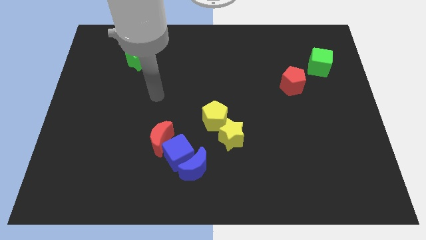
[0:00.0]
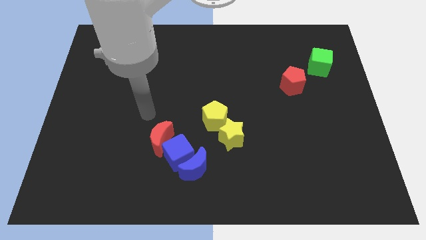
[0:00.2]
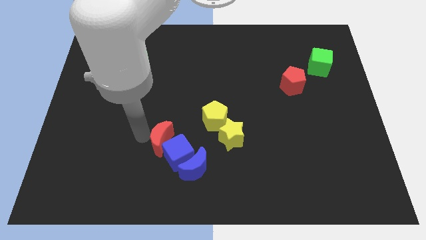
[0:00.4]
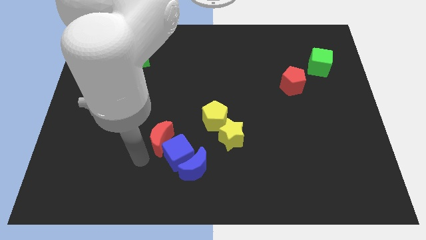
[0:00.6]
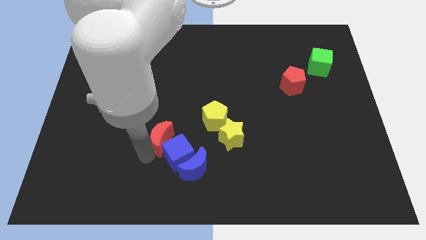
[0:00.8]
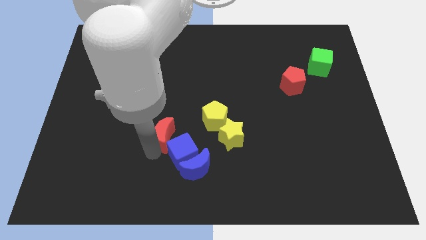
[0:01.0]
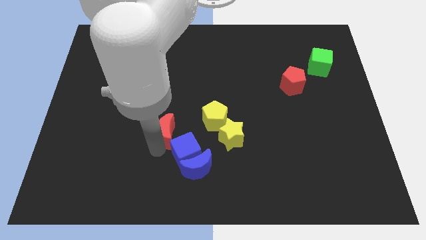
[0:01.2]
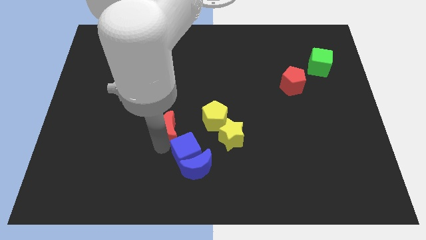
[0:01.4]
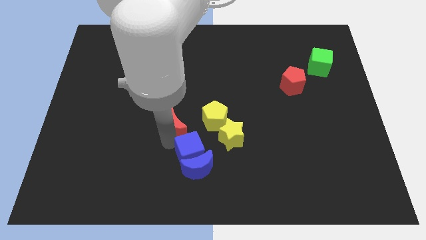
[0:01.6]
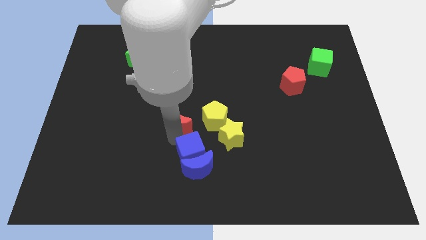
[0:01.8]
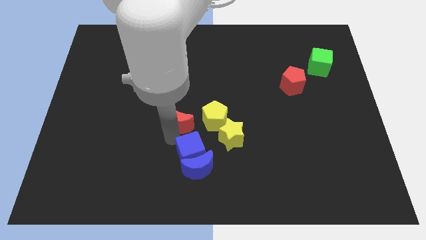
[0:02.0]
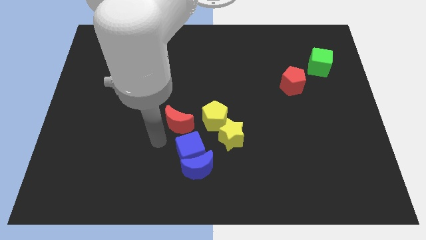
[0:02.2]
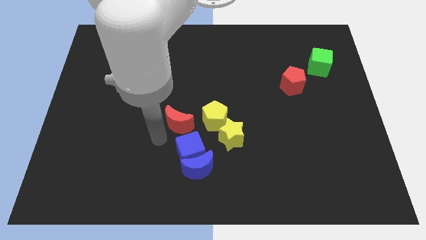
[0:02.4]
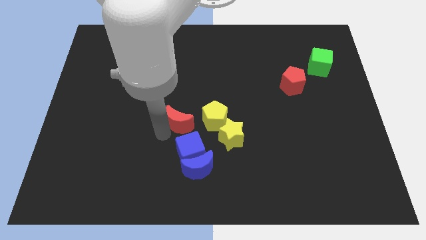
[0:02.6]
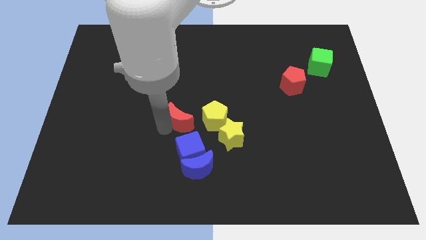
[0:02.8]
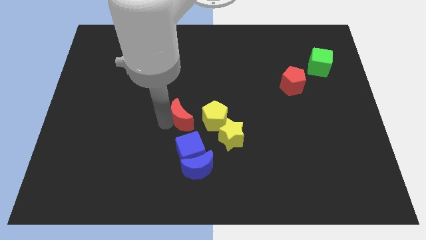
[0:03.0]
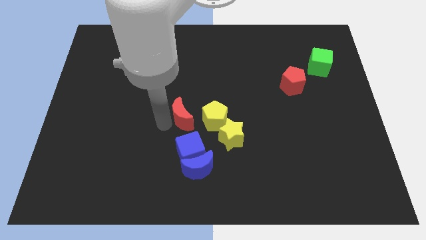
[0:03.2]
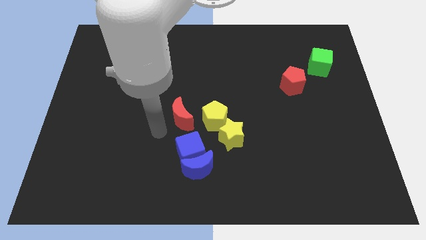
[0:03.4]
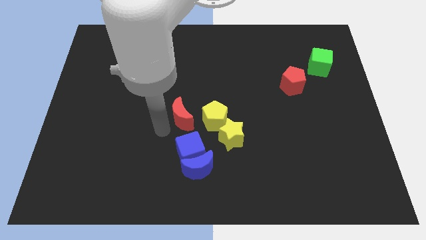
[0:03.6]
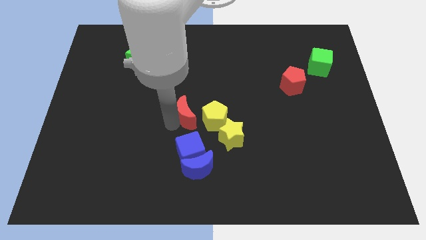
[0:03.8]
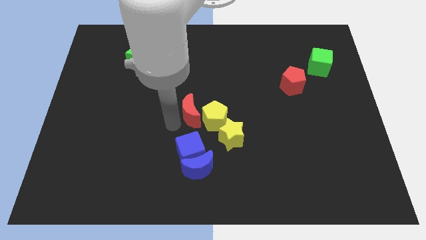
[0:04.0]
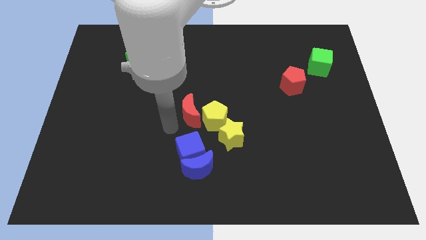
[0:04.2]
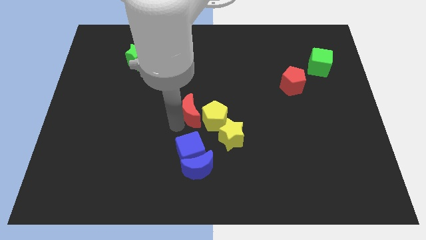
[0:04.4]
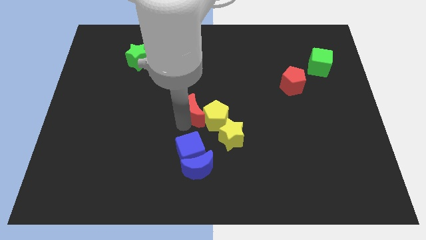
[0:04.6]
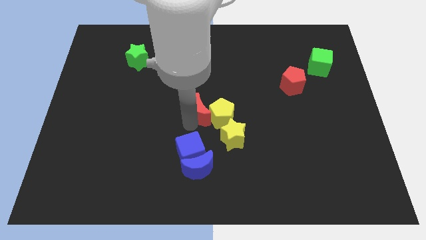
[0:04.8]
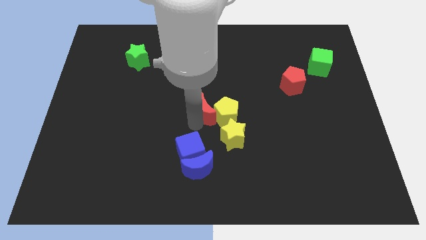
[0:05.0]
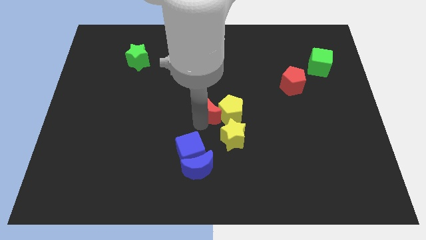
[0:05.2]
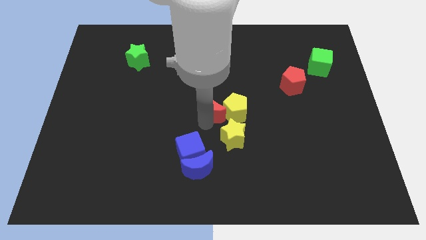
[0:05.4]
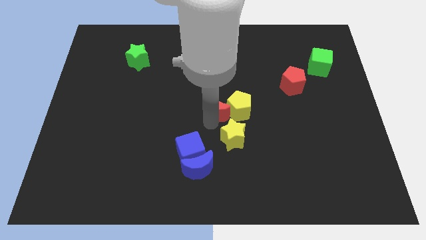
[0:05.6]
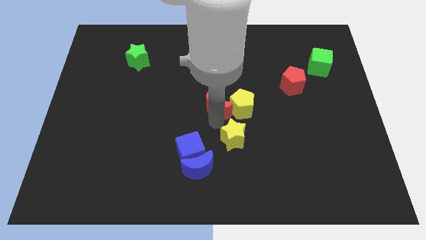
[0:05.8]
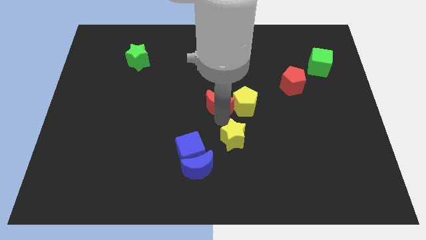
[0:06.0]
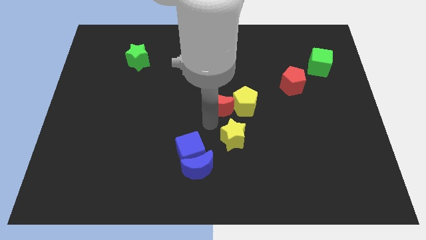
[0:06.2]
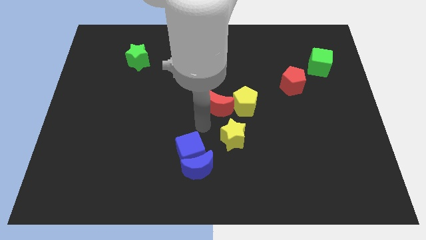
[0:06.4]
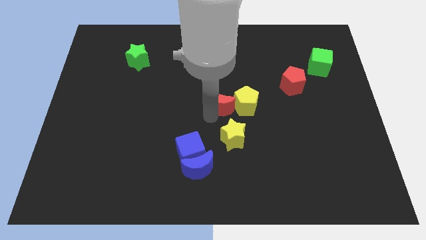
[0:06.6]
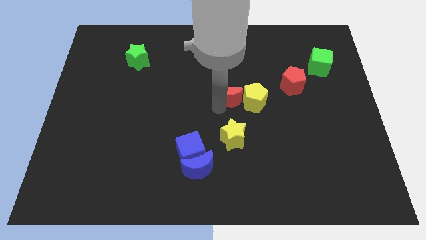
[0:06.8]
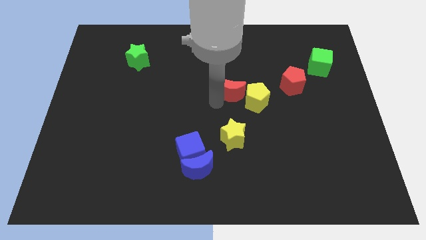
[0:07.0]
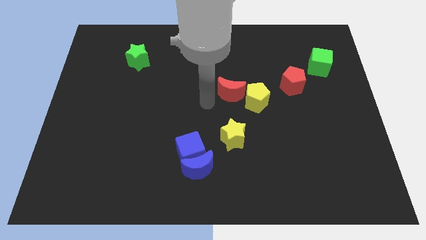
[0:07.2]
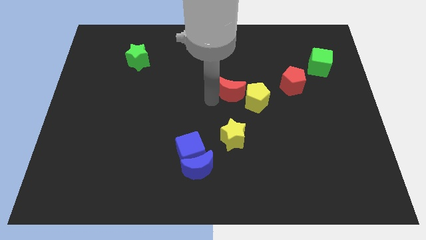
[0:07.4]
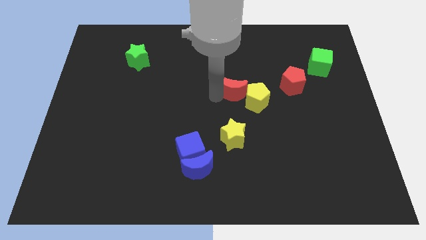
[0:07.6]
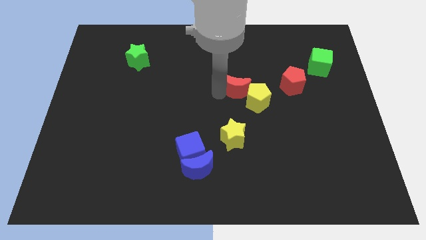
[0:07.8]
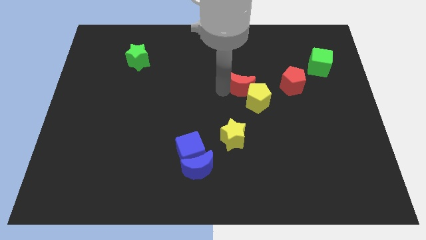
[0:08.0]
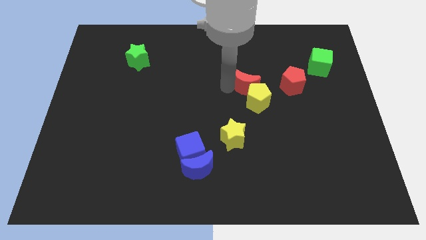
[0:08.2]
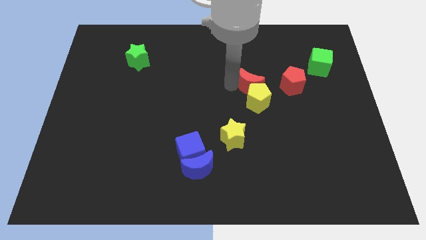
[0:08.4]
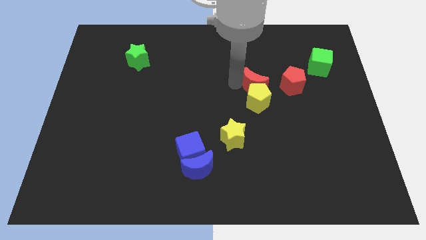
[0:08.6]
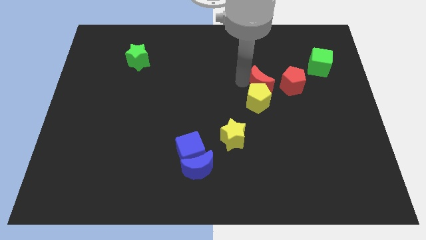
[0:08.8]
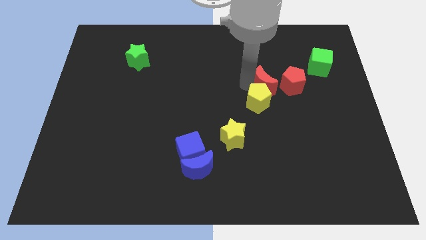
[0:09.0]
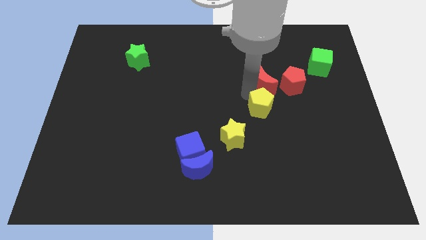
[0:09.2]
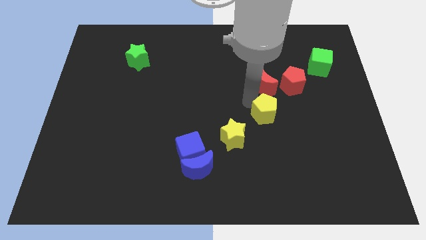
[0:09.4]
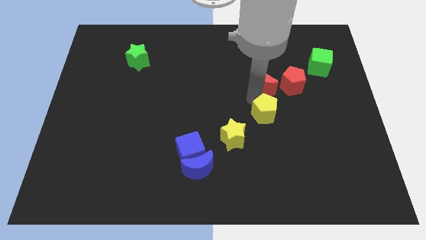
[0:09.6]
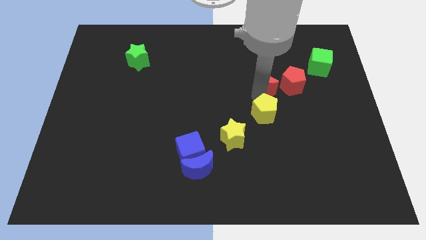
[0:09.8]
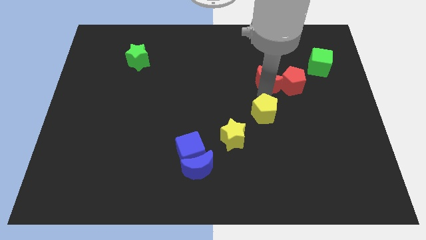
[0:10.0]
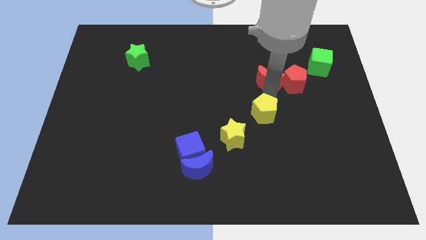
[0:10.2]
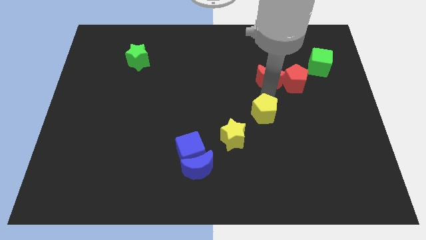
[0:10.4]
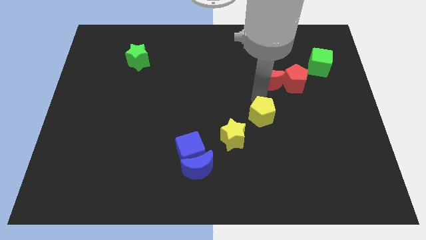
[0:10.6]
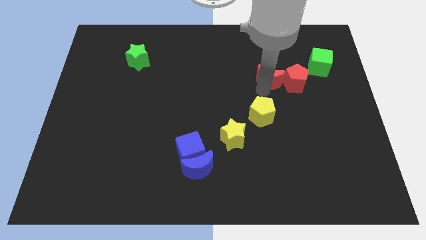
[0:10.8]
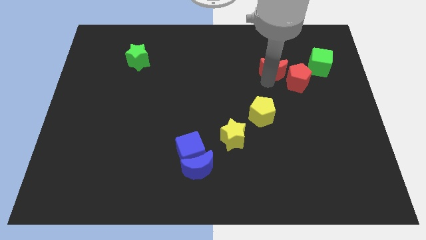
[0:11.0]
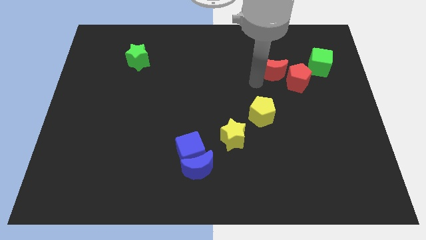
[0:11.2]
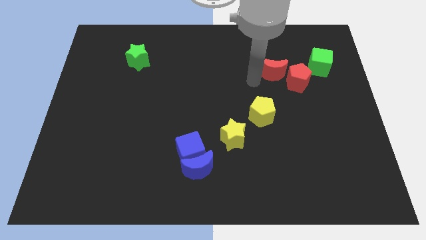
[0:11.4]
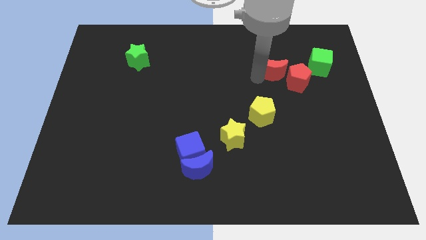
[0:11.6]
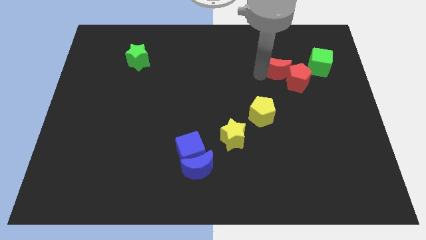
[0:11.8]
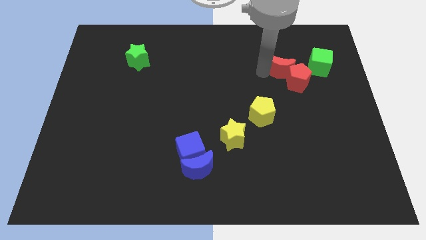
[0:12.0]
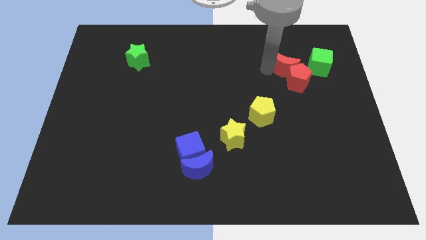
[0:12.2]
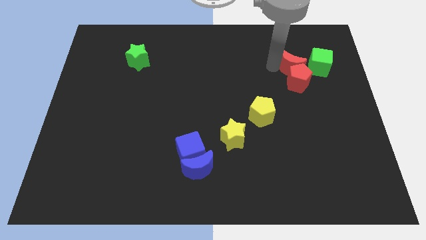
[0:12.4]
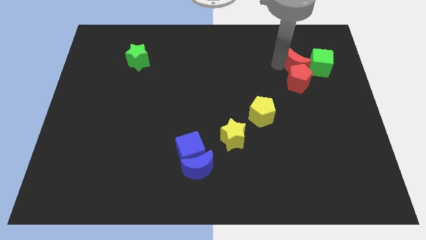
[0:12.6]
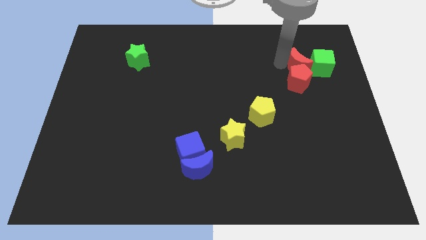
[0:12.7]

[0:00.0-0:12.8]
put the red moon towards the green cube

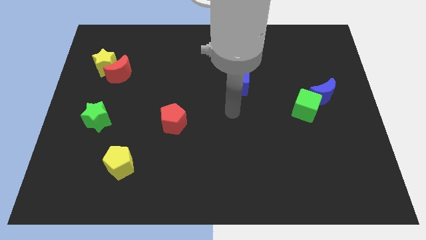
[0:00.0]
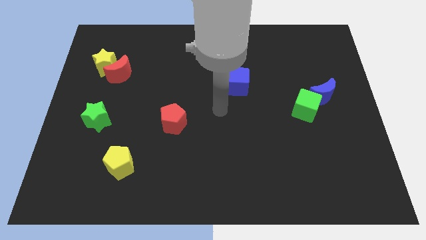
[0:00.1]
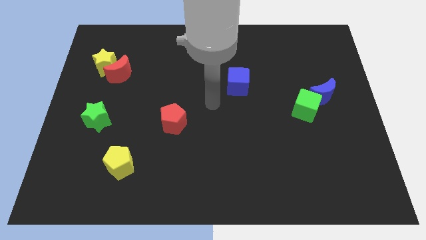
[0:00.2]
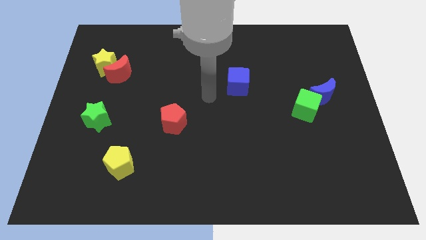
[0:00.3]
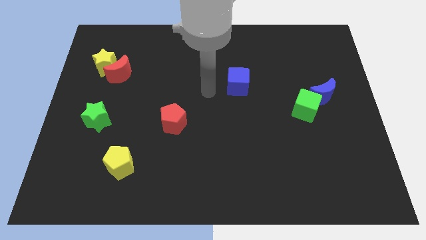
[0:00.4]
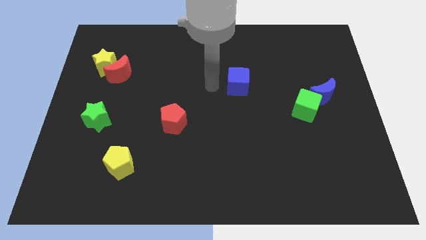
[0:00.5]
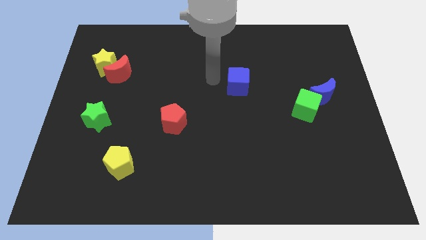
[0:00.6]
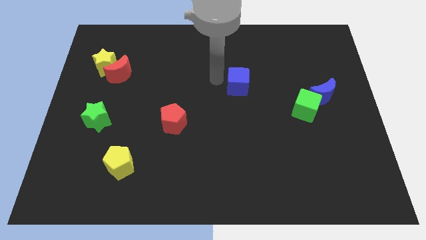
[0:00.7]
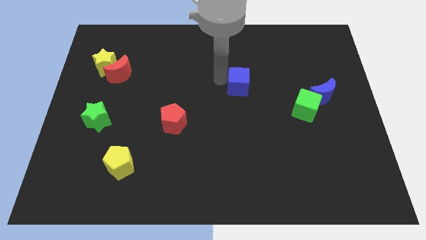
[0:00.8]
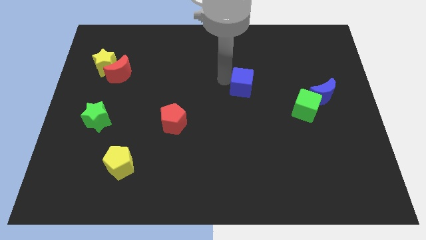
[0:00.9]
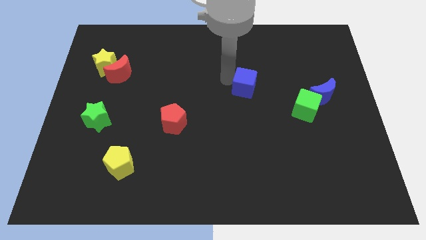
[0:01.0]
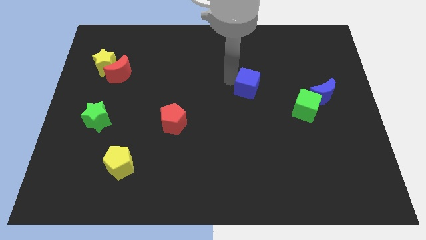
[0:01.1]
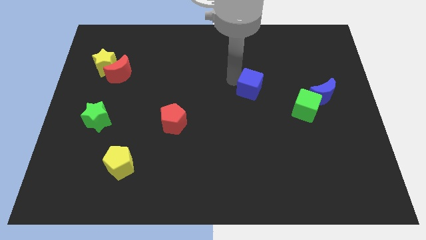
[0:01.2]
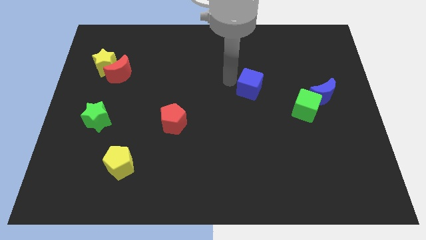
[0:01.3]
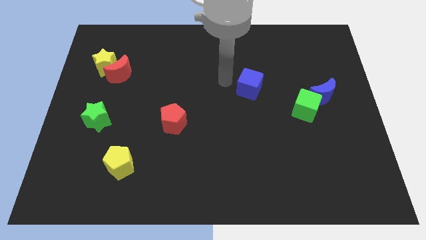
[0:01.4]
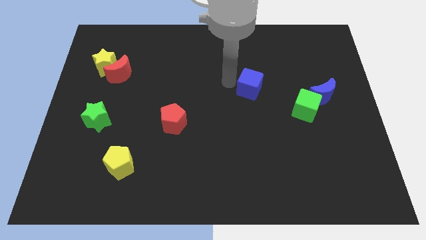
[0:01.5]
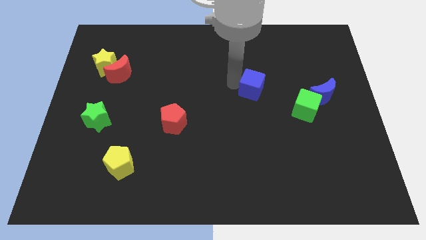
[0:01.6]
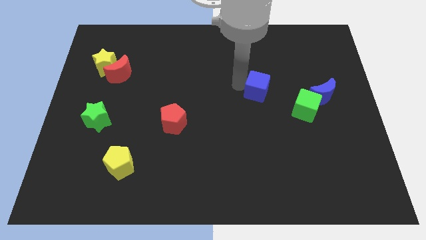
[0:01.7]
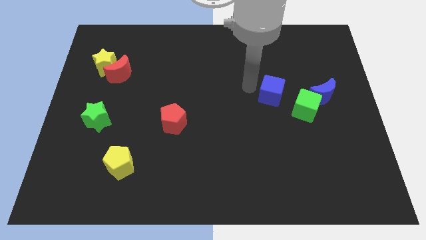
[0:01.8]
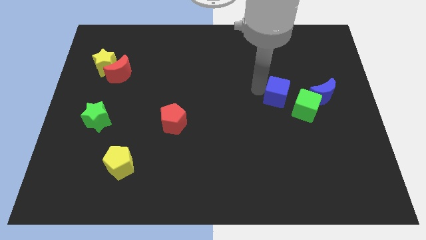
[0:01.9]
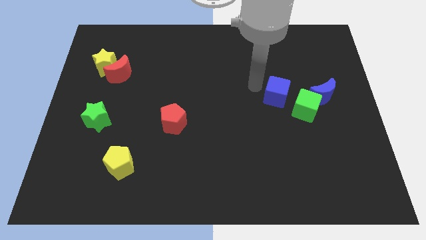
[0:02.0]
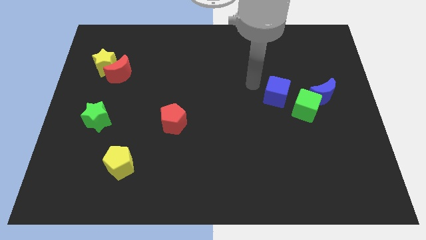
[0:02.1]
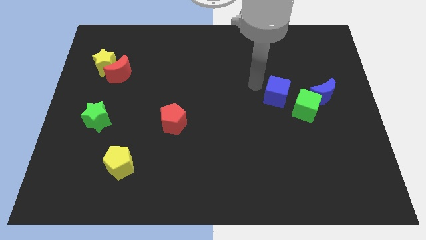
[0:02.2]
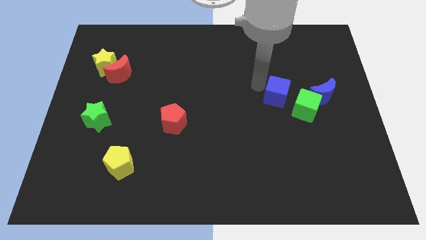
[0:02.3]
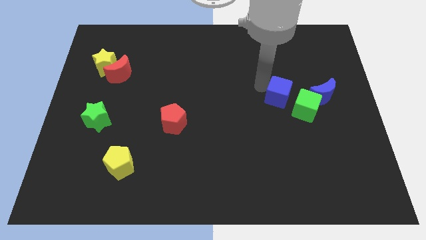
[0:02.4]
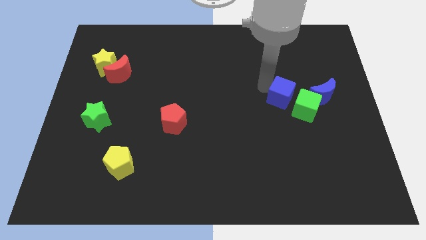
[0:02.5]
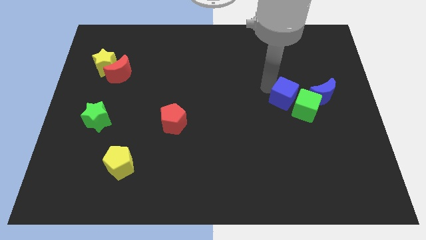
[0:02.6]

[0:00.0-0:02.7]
move the blue cube close to the green cube
